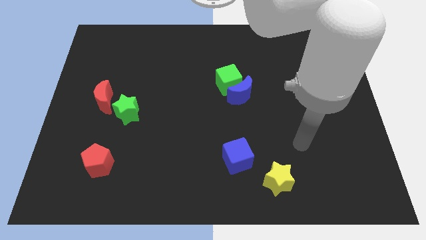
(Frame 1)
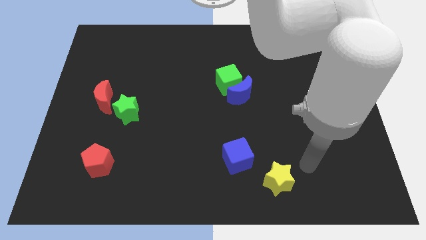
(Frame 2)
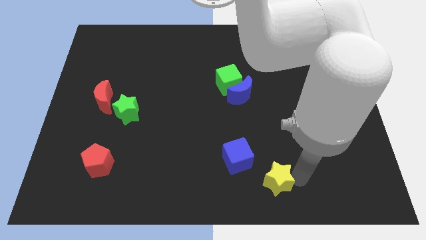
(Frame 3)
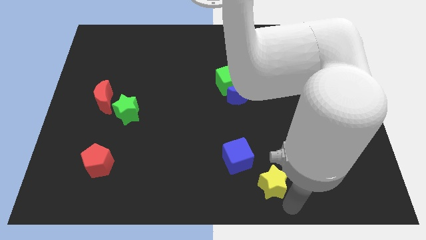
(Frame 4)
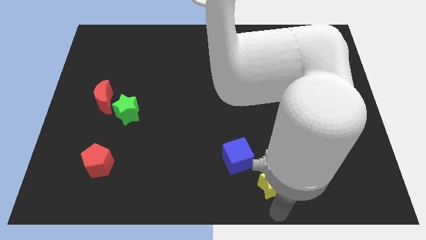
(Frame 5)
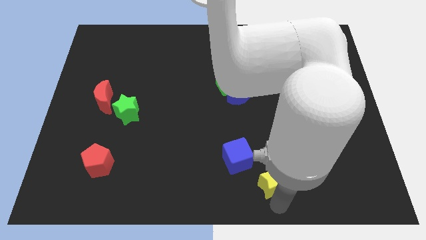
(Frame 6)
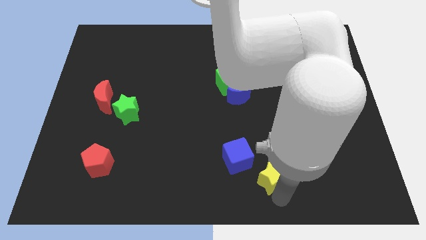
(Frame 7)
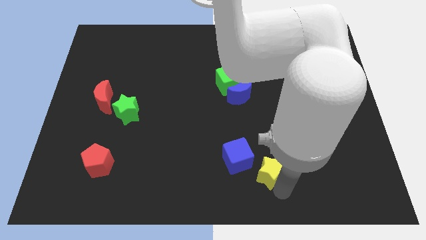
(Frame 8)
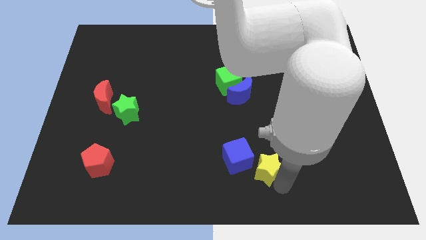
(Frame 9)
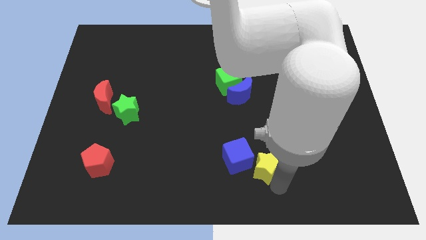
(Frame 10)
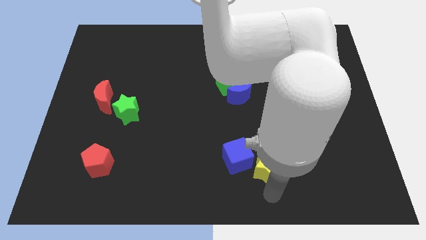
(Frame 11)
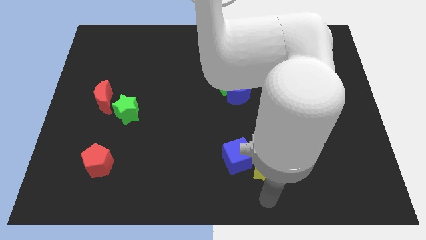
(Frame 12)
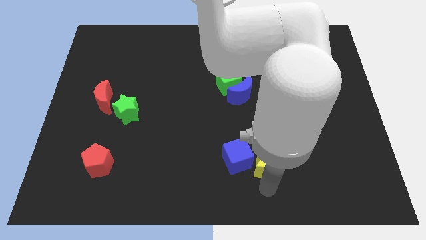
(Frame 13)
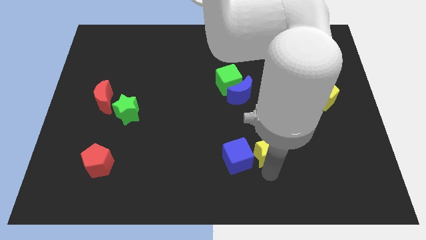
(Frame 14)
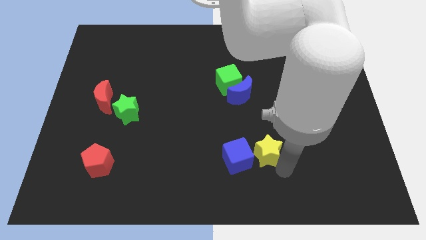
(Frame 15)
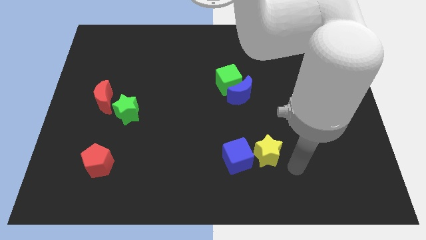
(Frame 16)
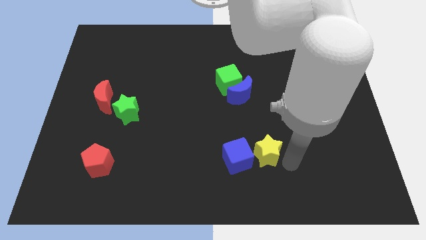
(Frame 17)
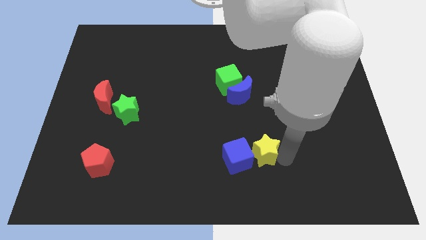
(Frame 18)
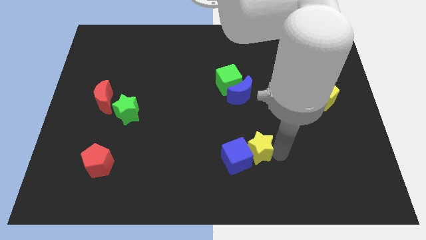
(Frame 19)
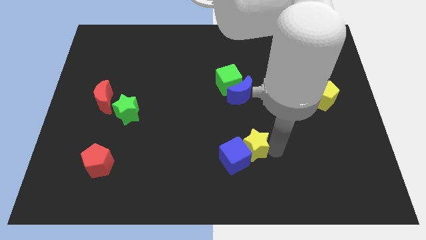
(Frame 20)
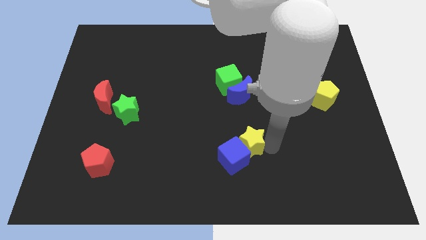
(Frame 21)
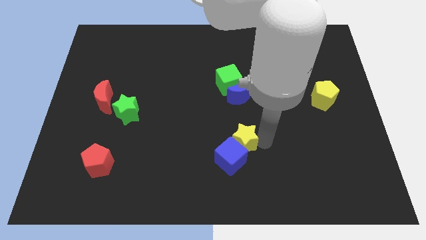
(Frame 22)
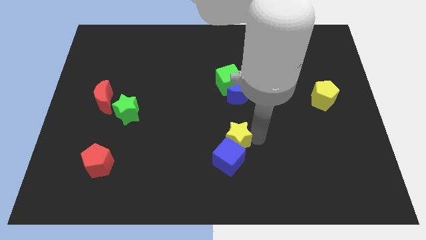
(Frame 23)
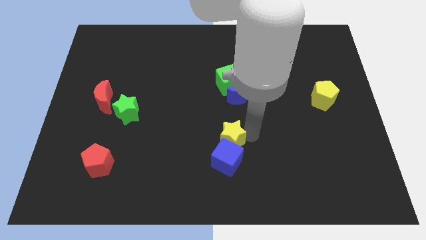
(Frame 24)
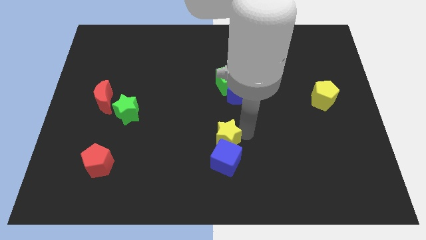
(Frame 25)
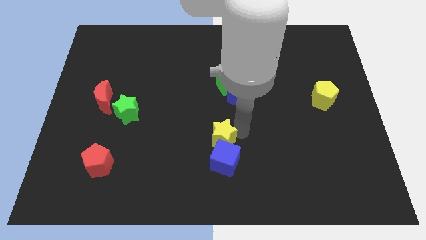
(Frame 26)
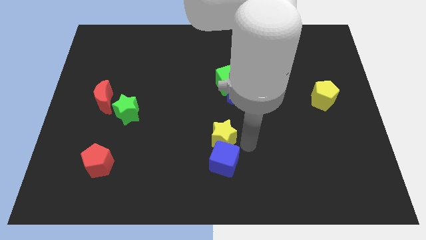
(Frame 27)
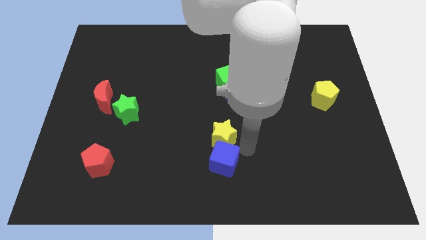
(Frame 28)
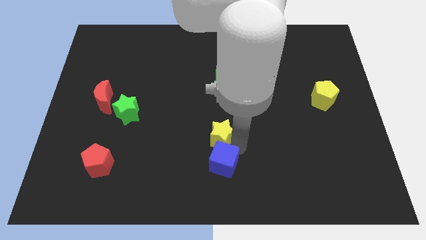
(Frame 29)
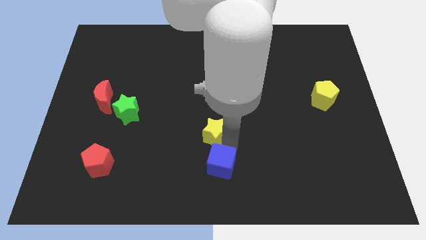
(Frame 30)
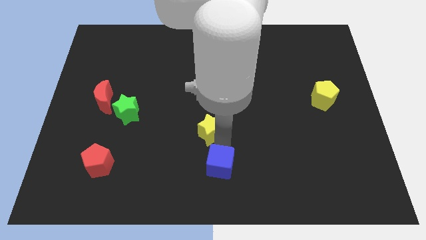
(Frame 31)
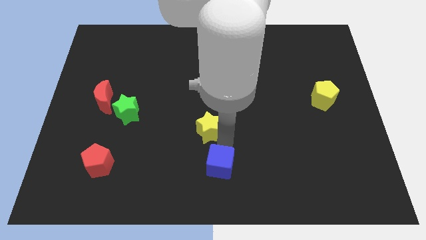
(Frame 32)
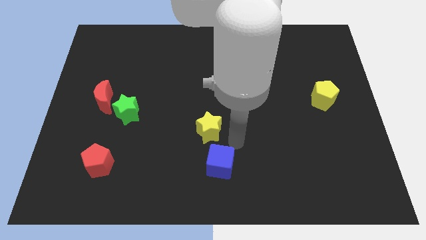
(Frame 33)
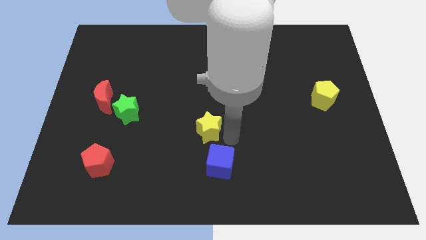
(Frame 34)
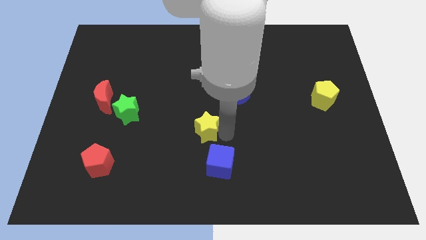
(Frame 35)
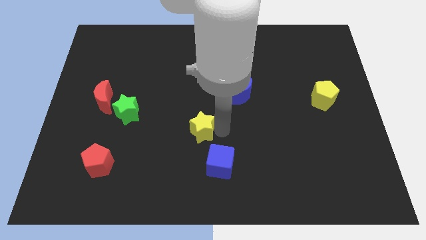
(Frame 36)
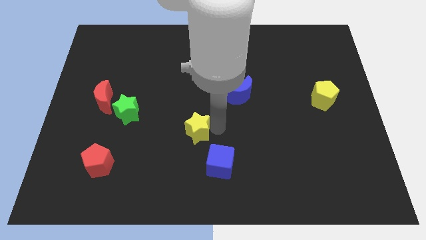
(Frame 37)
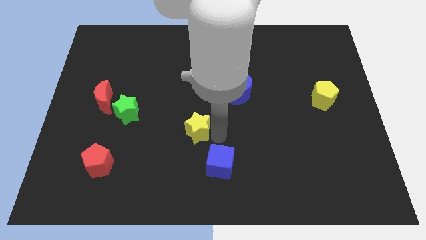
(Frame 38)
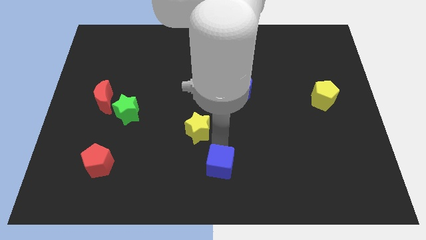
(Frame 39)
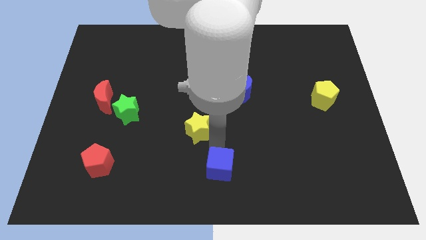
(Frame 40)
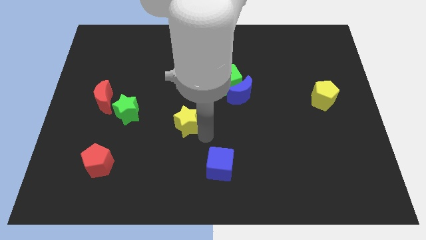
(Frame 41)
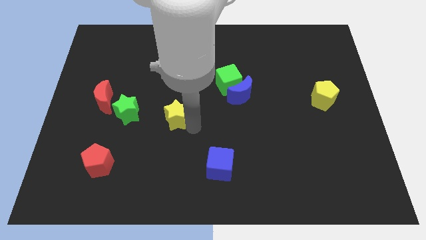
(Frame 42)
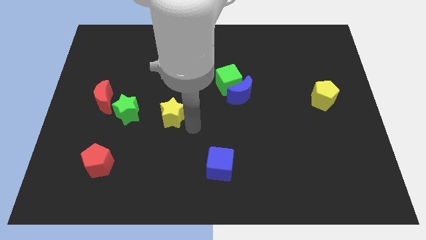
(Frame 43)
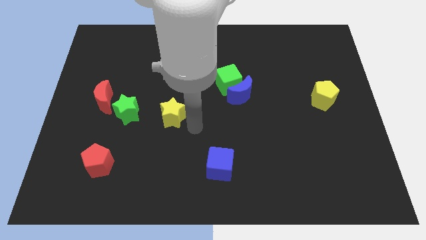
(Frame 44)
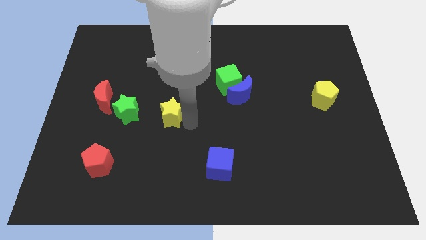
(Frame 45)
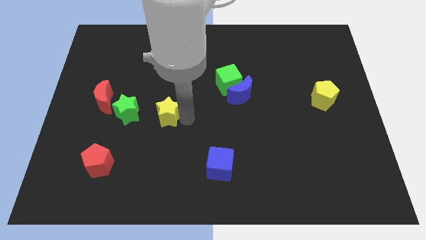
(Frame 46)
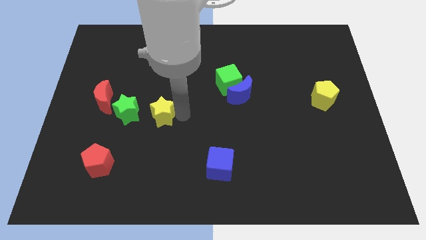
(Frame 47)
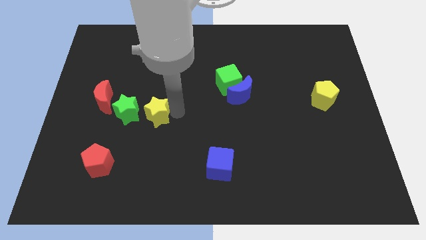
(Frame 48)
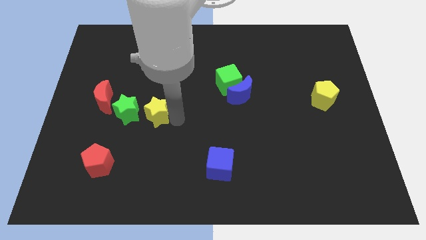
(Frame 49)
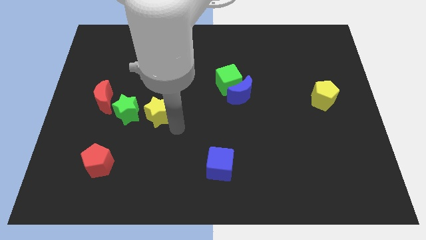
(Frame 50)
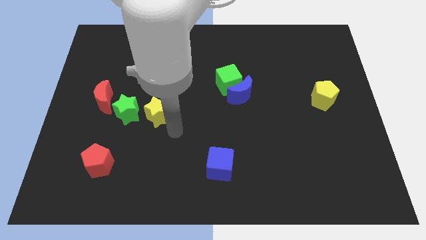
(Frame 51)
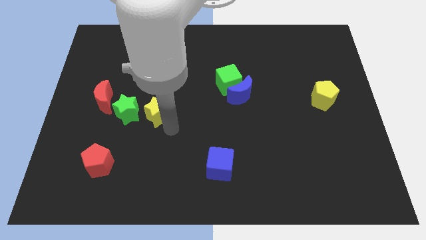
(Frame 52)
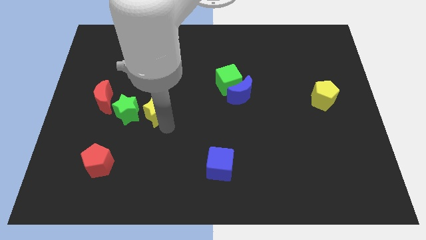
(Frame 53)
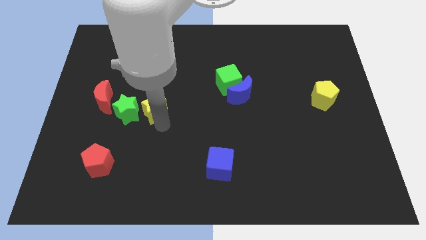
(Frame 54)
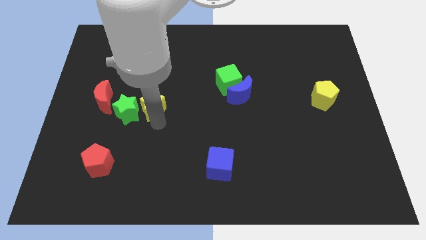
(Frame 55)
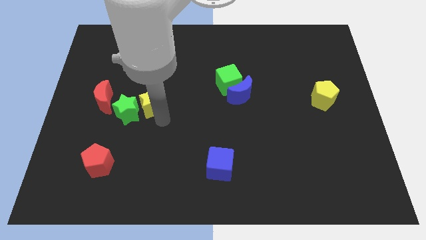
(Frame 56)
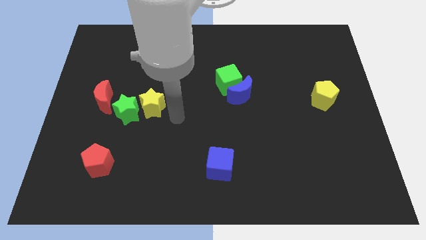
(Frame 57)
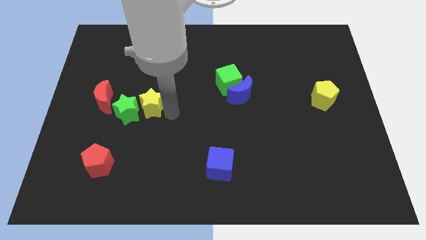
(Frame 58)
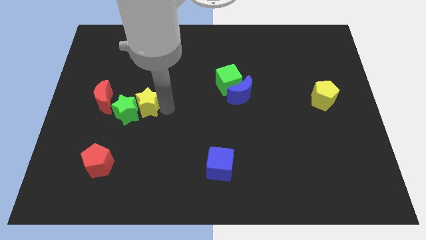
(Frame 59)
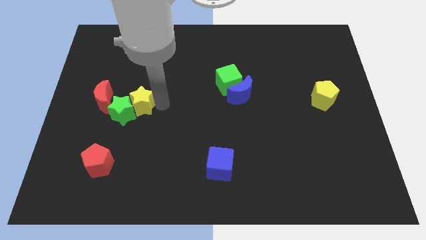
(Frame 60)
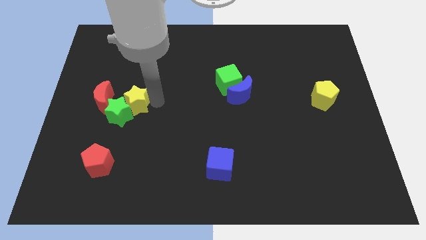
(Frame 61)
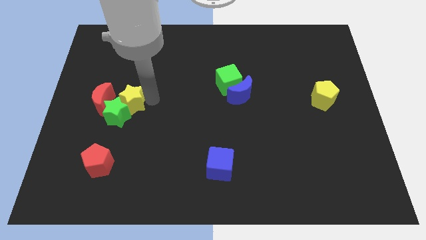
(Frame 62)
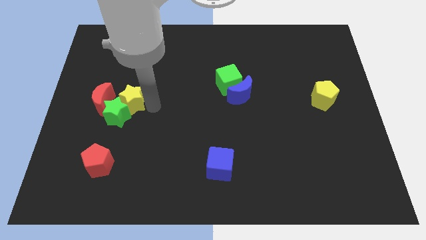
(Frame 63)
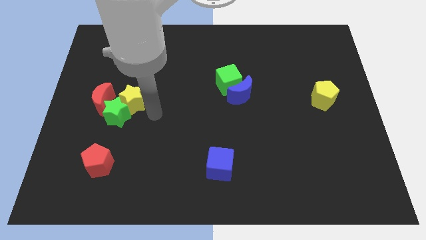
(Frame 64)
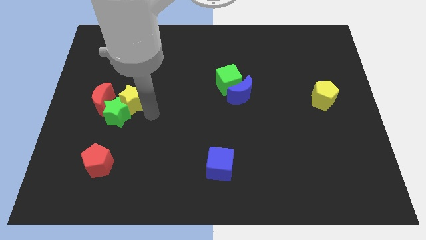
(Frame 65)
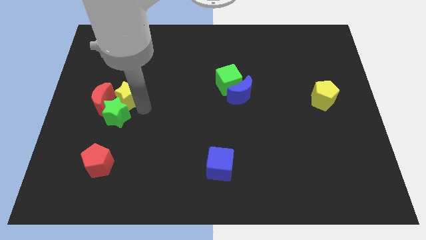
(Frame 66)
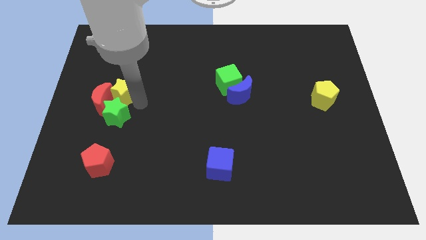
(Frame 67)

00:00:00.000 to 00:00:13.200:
push the yellow star to the red moon
